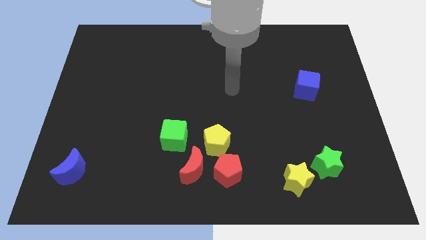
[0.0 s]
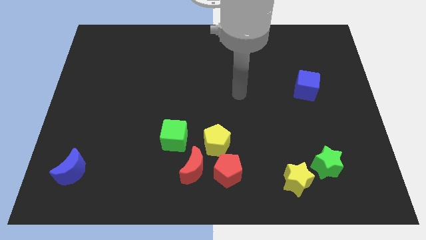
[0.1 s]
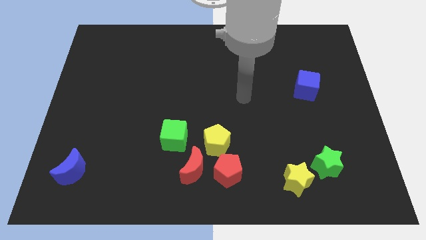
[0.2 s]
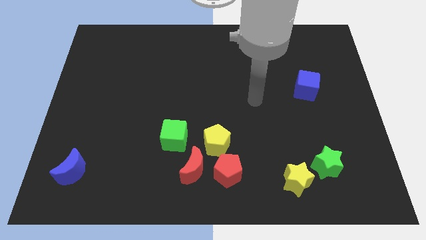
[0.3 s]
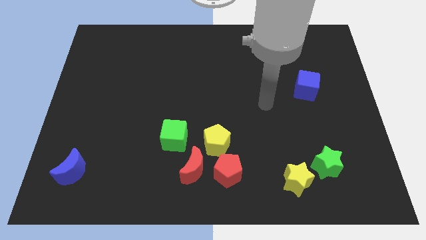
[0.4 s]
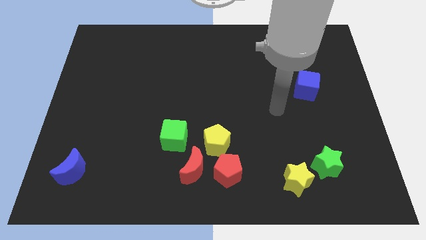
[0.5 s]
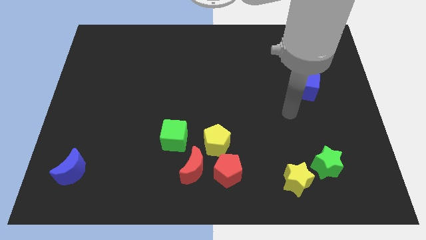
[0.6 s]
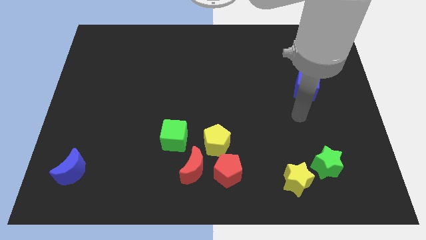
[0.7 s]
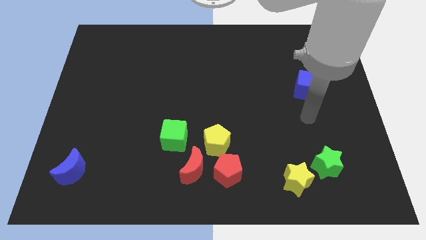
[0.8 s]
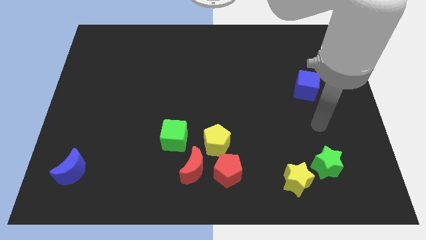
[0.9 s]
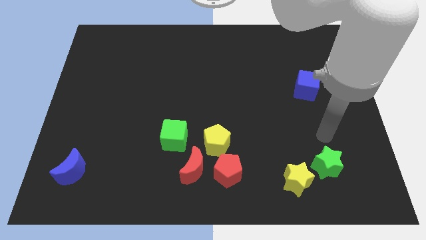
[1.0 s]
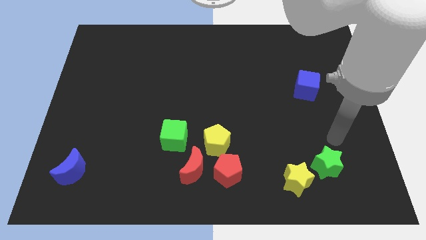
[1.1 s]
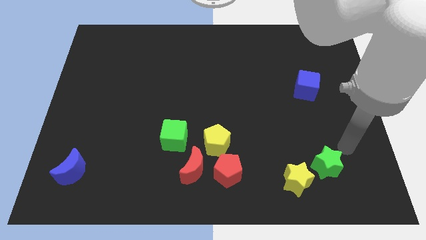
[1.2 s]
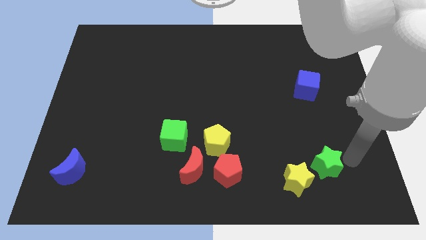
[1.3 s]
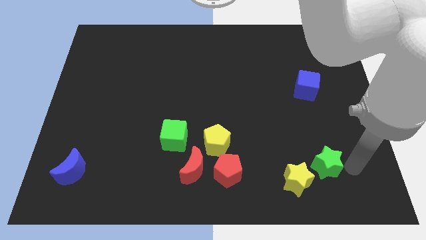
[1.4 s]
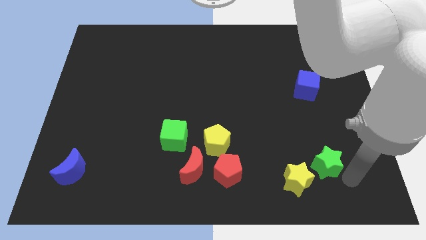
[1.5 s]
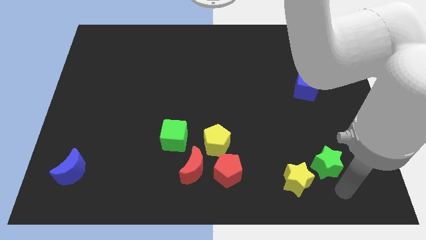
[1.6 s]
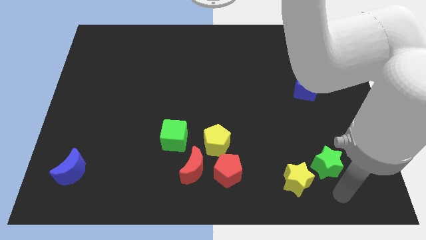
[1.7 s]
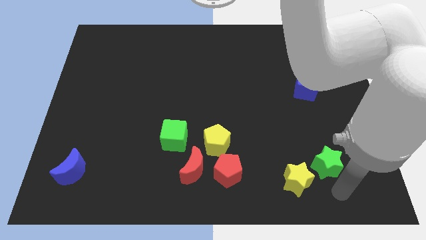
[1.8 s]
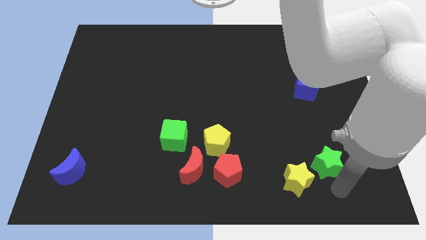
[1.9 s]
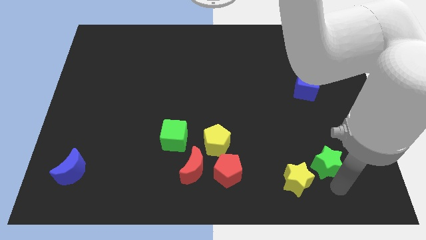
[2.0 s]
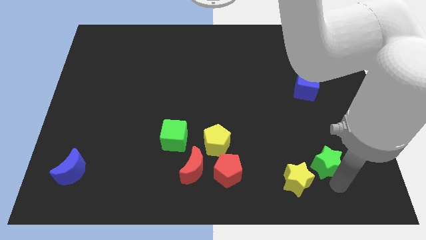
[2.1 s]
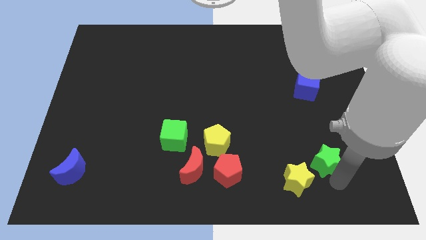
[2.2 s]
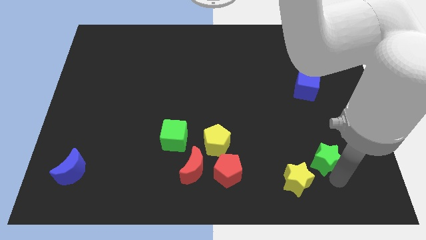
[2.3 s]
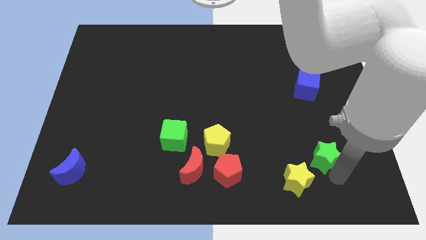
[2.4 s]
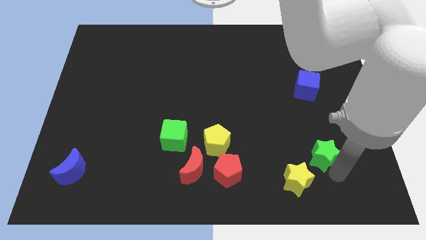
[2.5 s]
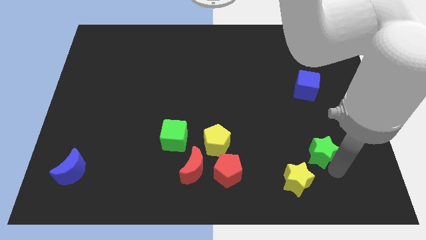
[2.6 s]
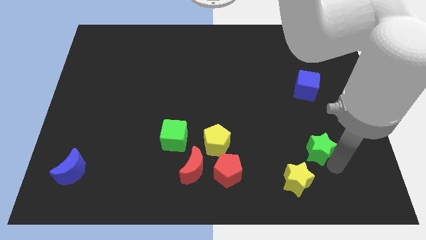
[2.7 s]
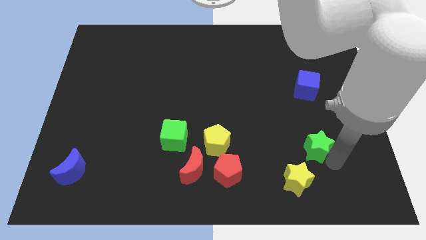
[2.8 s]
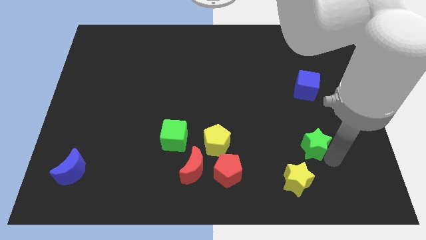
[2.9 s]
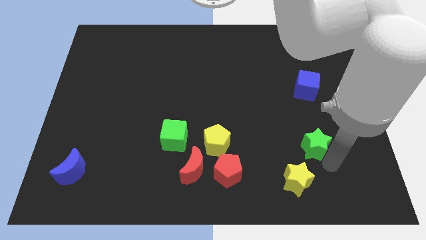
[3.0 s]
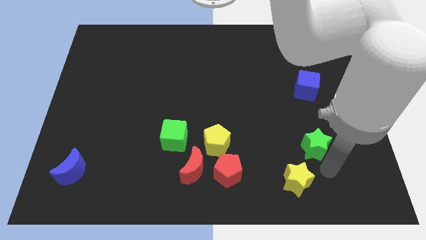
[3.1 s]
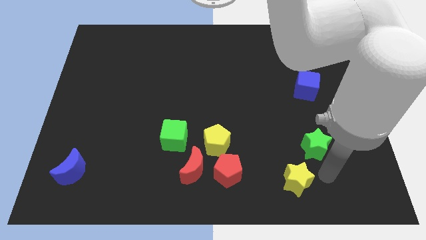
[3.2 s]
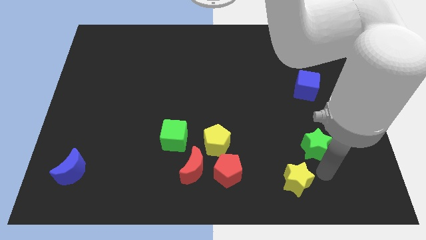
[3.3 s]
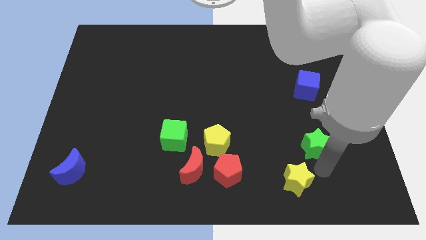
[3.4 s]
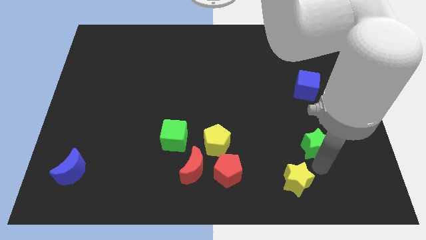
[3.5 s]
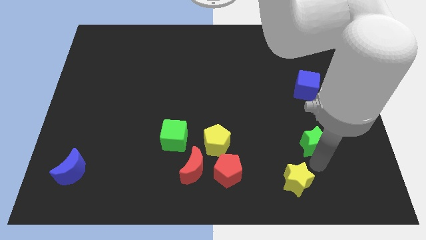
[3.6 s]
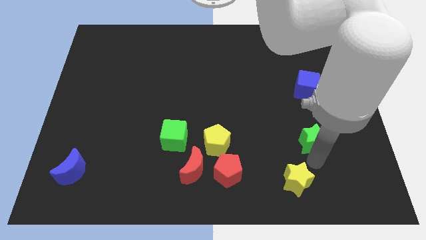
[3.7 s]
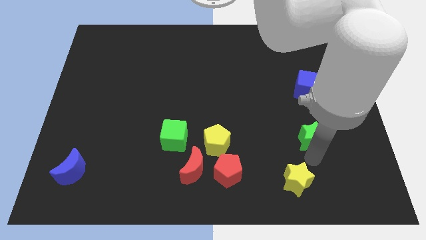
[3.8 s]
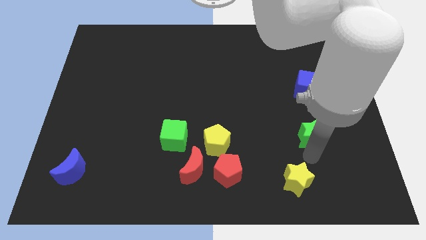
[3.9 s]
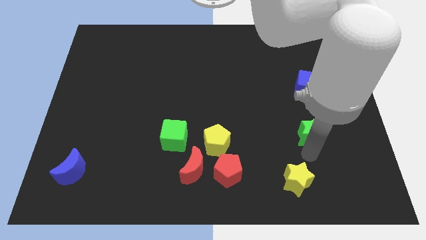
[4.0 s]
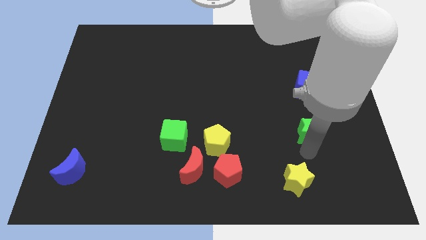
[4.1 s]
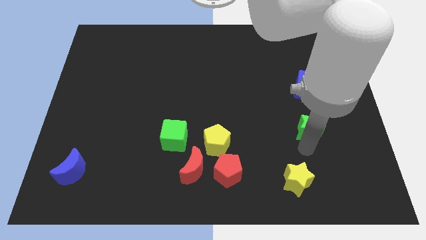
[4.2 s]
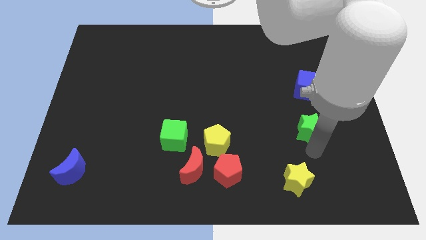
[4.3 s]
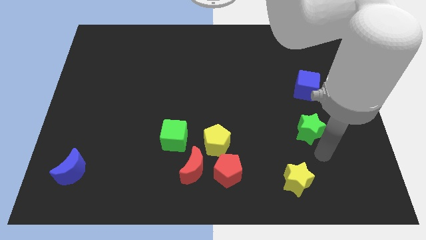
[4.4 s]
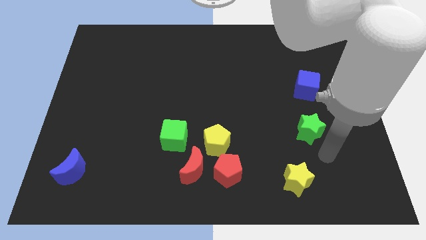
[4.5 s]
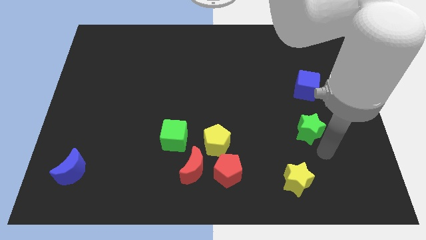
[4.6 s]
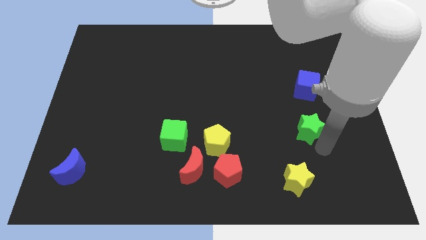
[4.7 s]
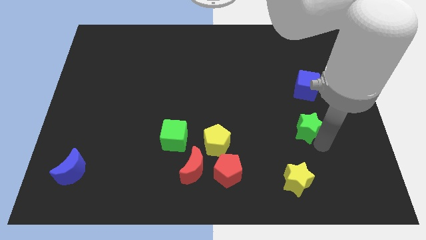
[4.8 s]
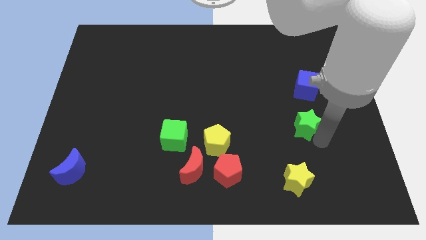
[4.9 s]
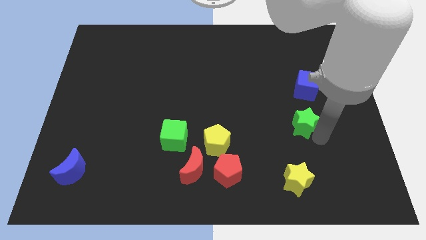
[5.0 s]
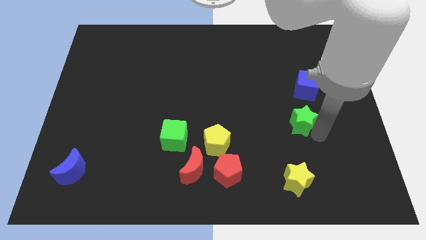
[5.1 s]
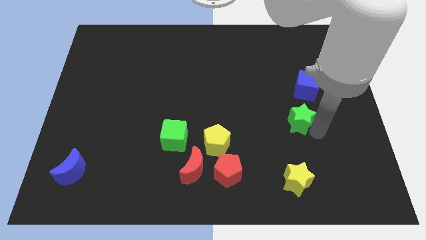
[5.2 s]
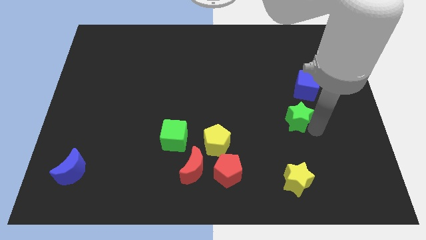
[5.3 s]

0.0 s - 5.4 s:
slide the green star to the bottom left of the blue cube

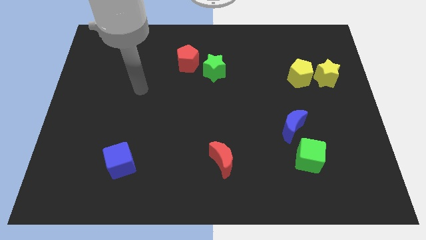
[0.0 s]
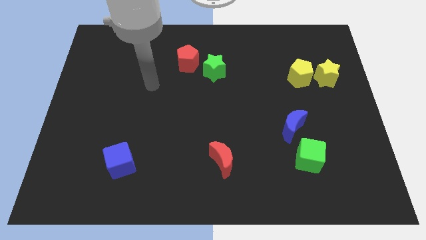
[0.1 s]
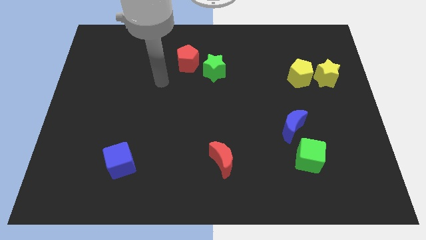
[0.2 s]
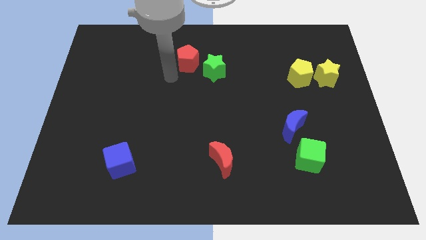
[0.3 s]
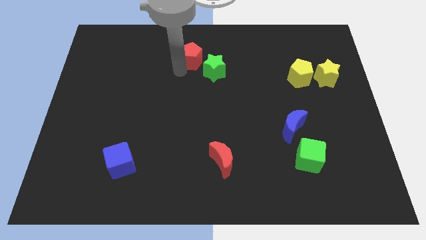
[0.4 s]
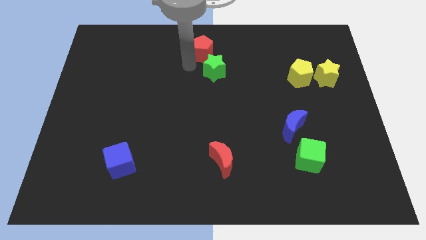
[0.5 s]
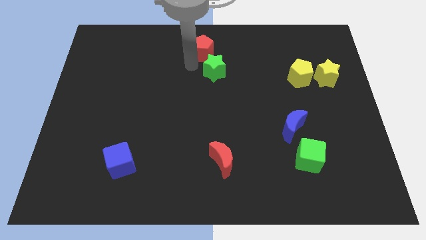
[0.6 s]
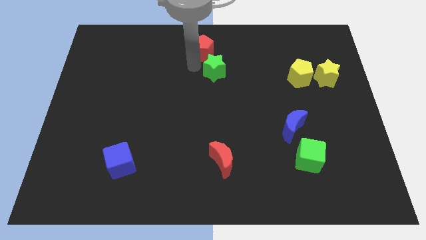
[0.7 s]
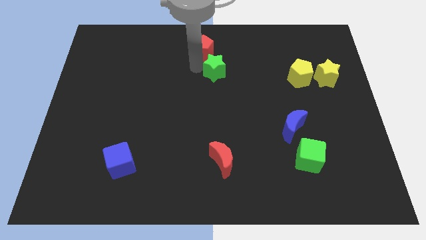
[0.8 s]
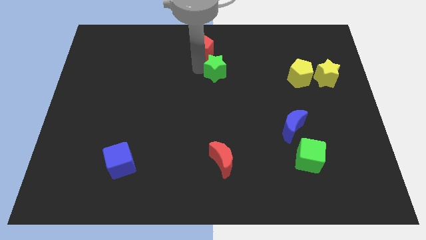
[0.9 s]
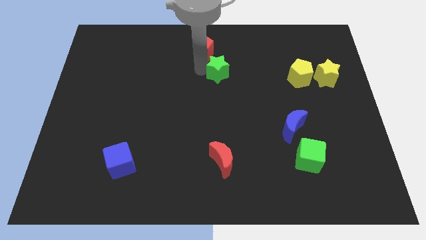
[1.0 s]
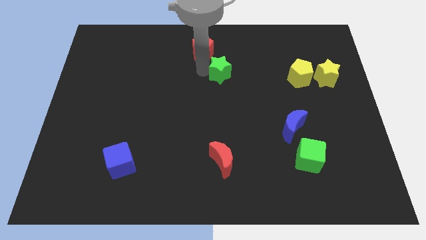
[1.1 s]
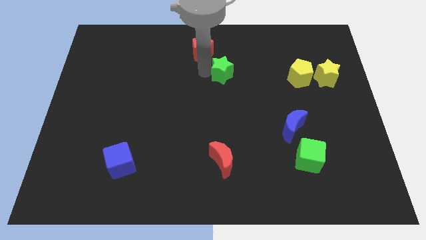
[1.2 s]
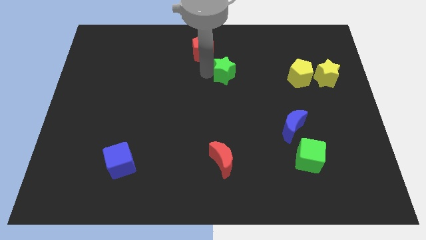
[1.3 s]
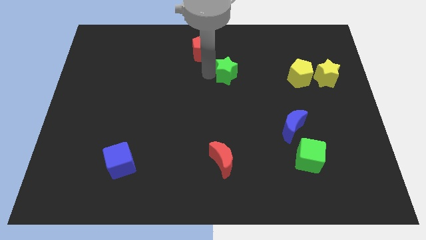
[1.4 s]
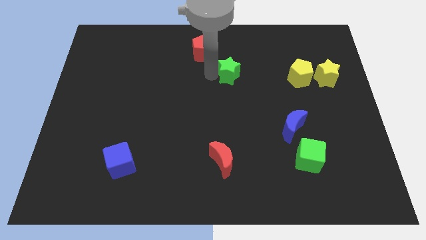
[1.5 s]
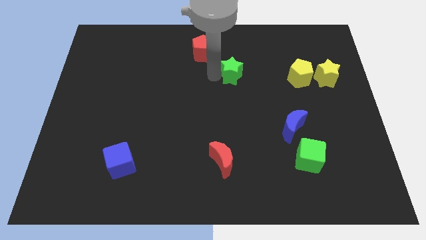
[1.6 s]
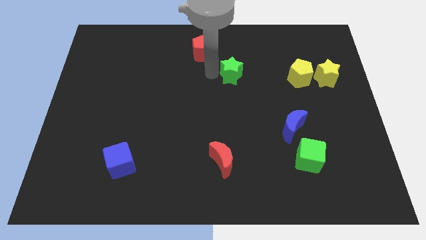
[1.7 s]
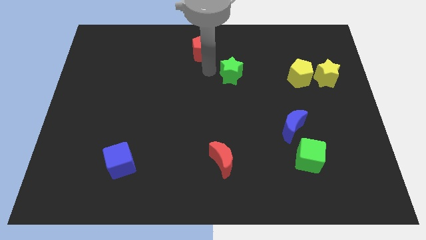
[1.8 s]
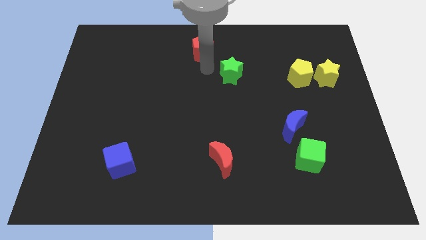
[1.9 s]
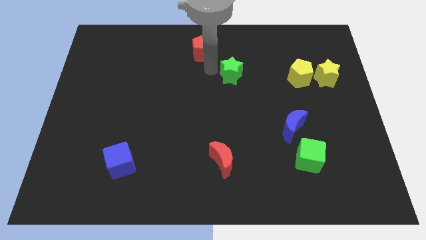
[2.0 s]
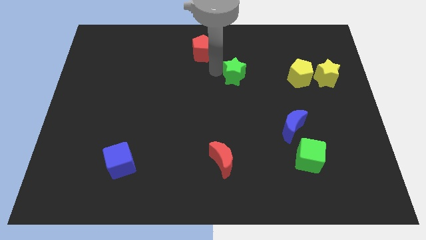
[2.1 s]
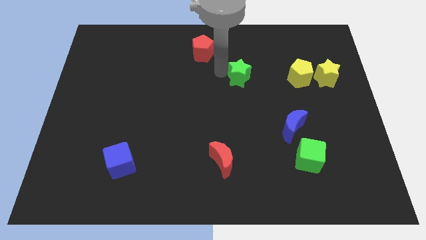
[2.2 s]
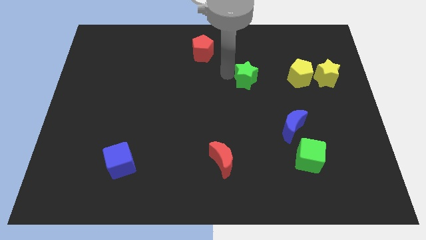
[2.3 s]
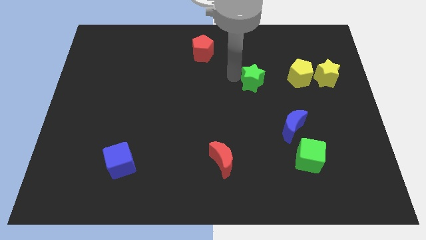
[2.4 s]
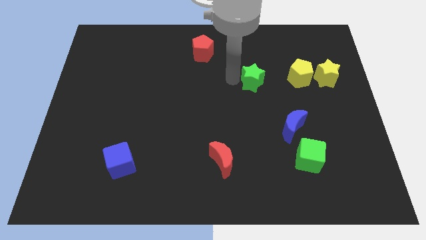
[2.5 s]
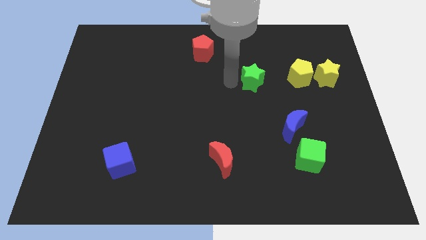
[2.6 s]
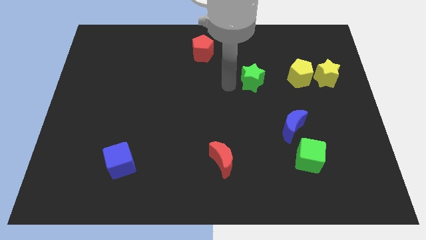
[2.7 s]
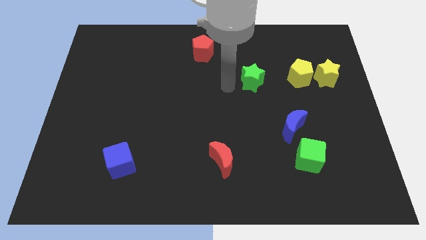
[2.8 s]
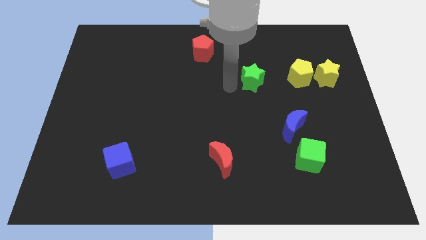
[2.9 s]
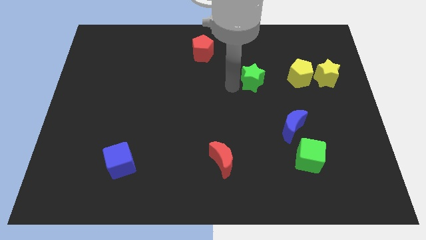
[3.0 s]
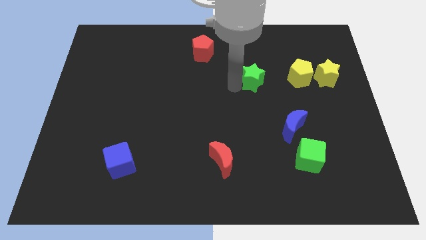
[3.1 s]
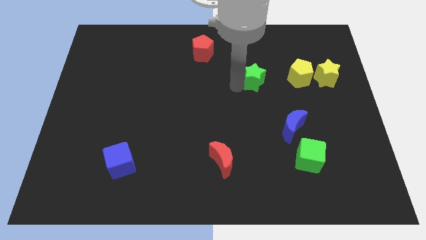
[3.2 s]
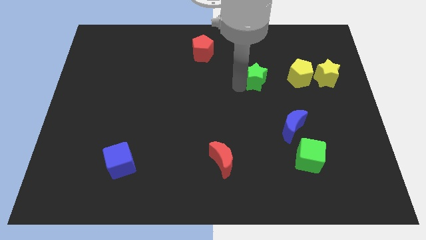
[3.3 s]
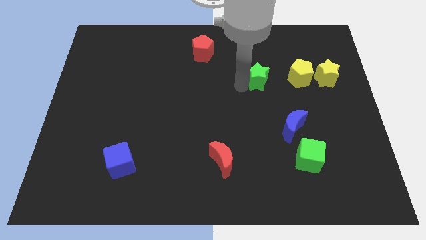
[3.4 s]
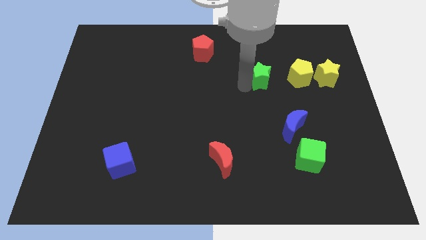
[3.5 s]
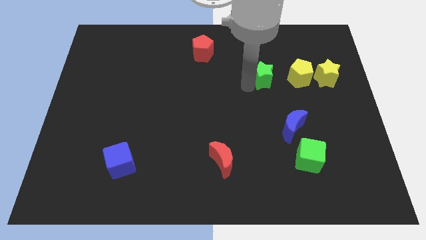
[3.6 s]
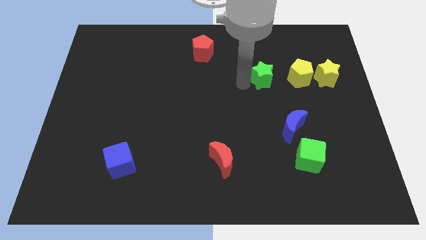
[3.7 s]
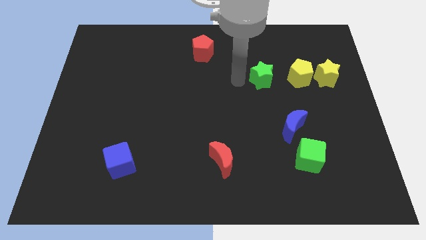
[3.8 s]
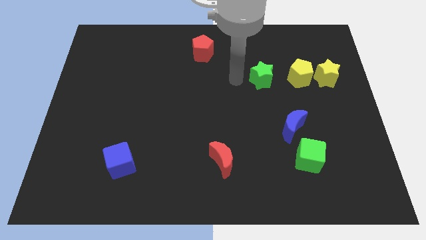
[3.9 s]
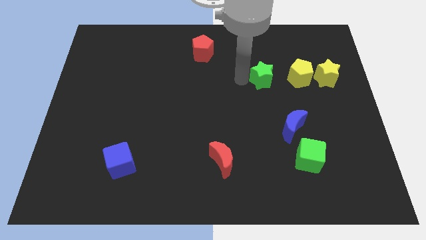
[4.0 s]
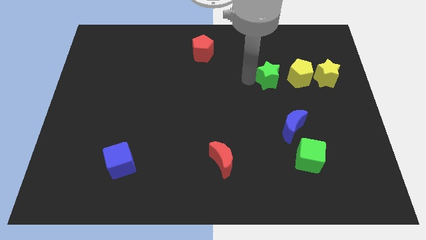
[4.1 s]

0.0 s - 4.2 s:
slide the green star to the left of the yellow star
